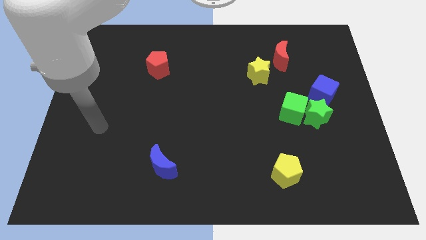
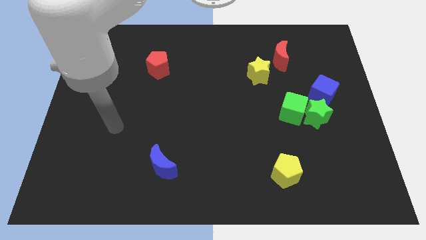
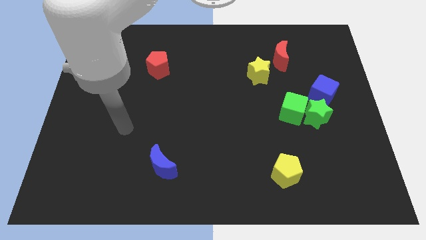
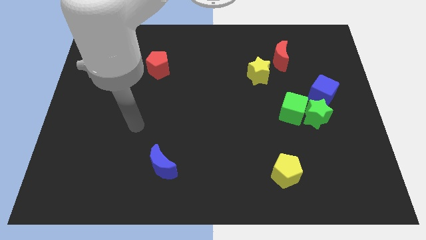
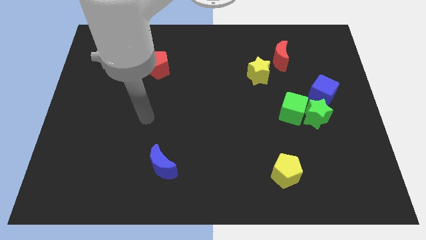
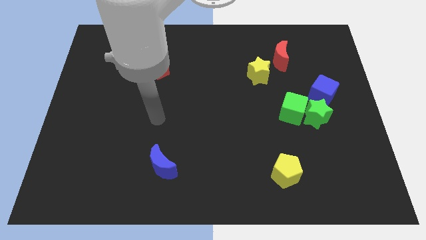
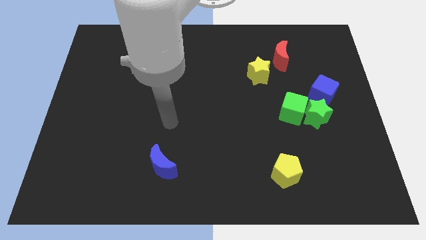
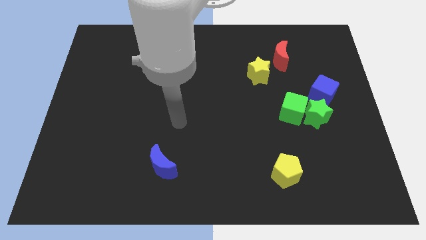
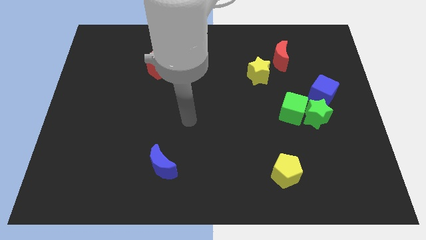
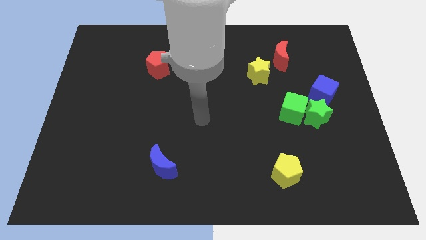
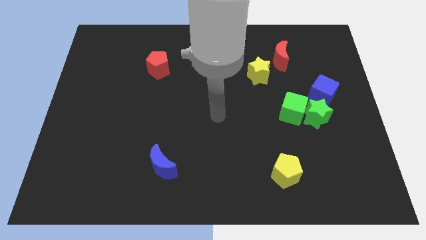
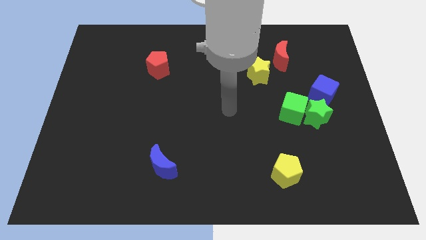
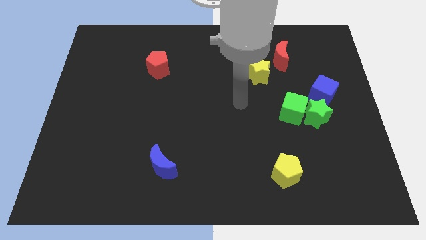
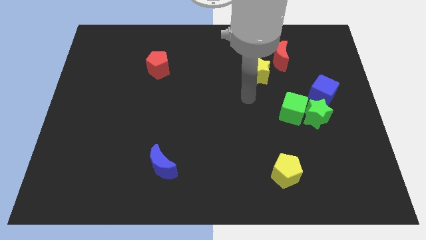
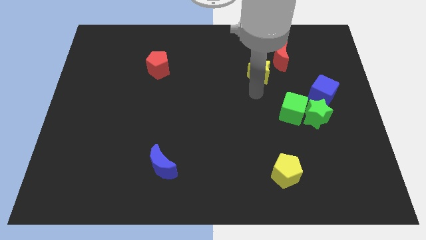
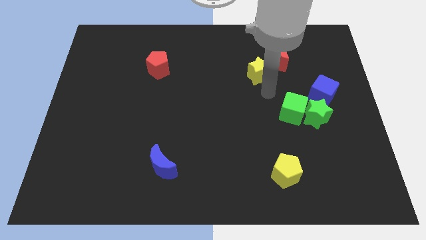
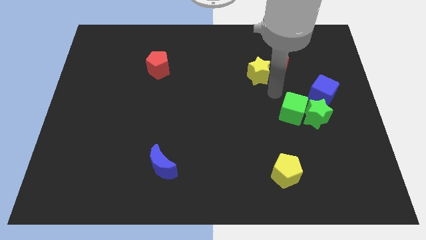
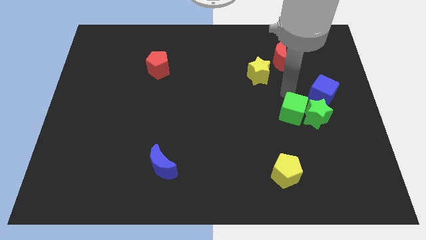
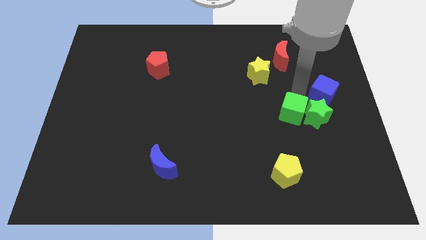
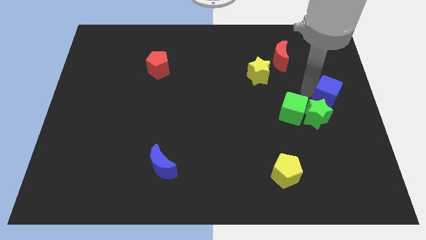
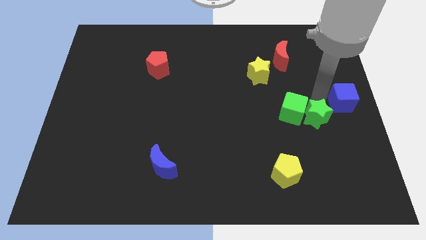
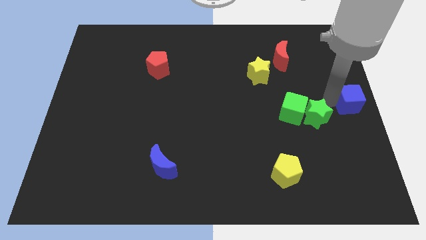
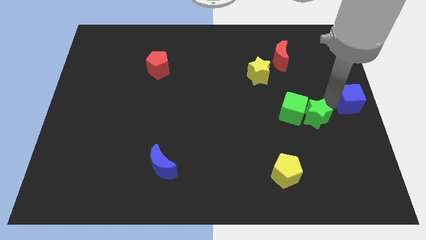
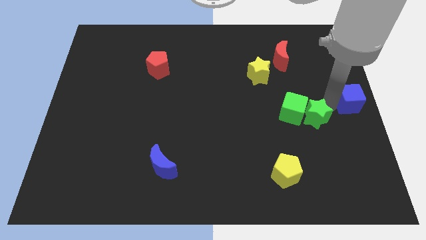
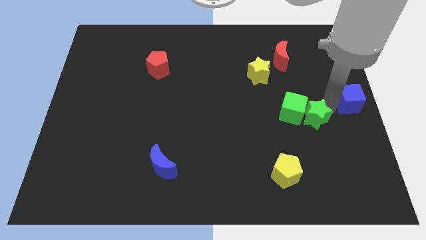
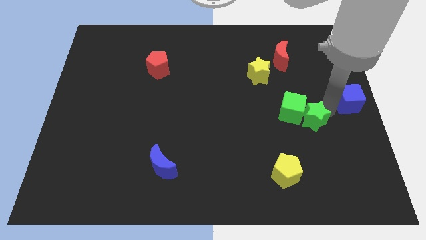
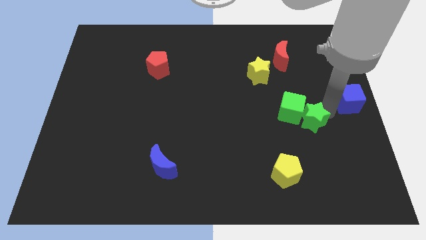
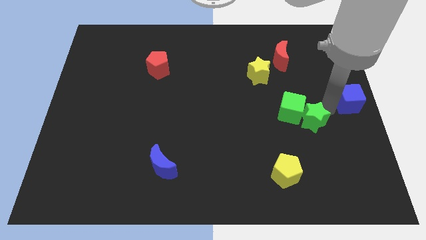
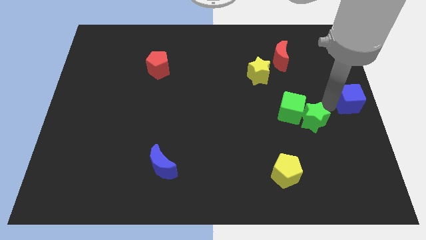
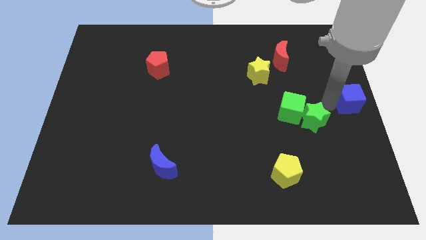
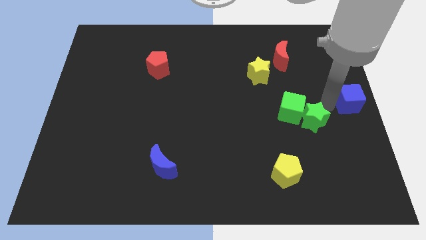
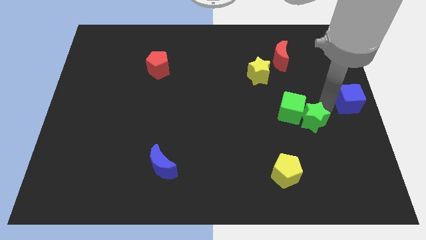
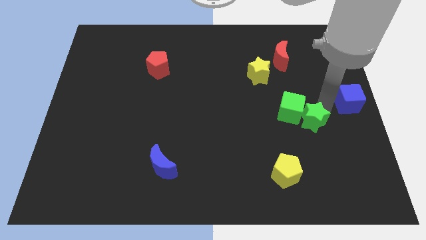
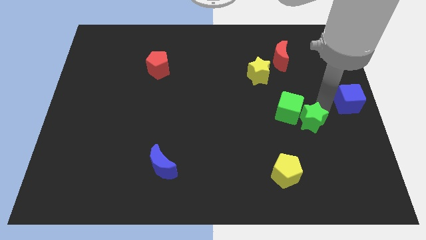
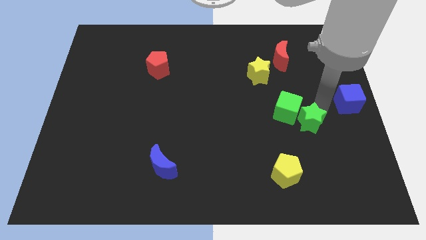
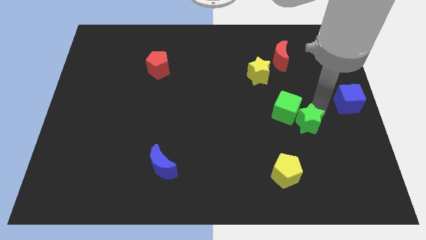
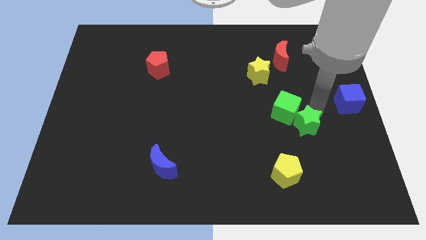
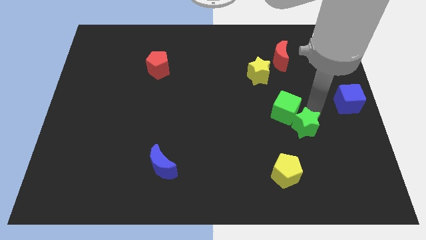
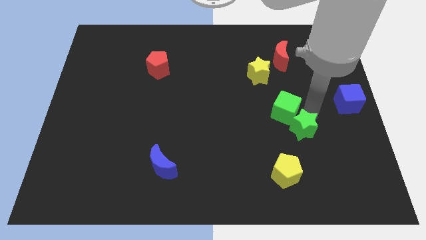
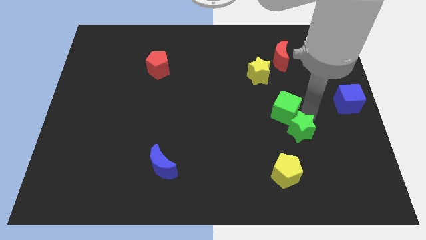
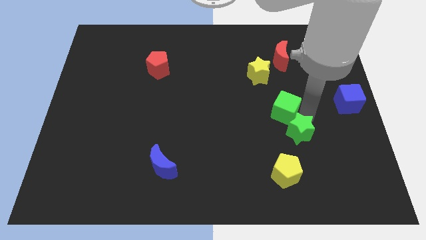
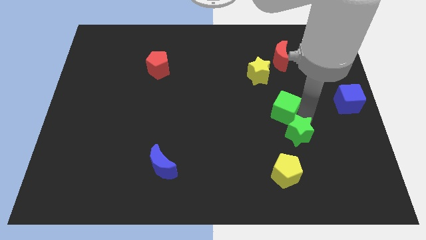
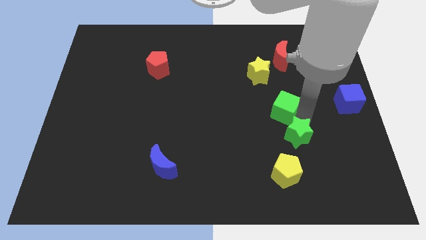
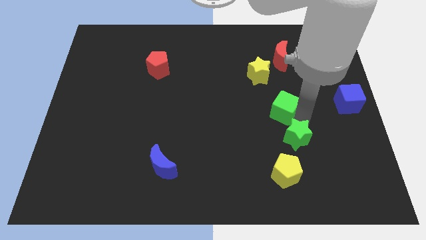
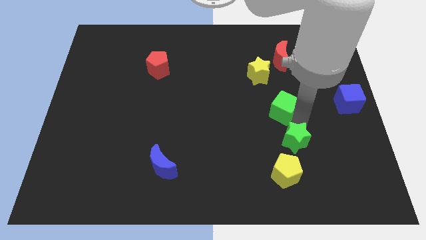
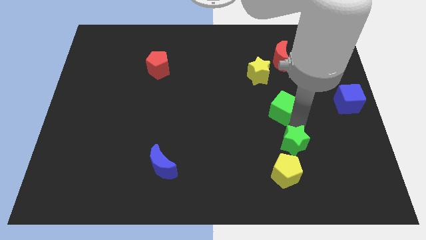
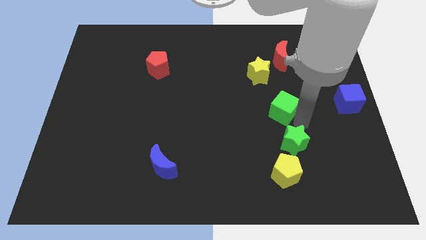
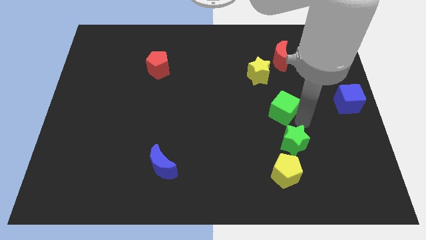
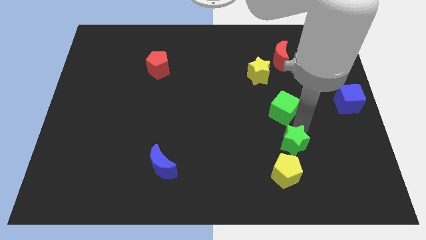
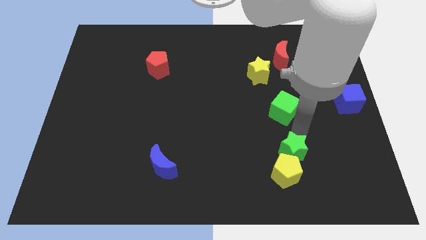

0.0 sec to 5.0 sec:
move the green star close to the yellow pentagon

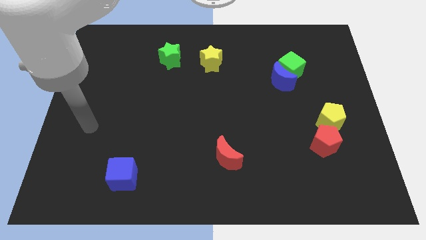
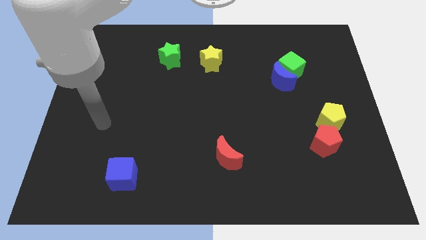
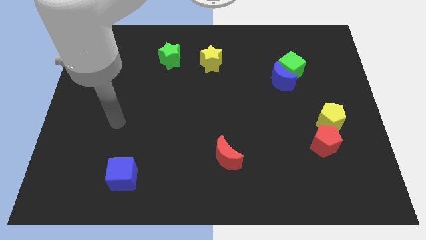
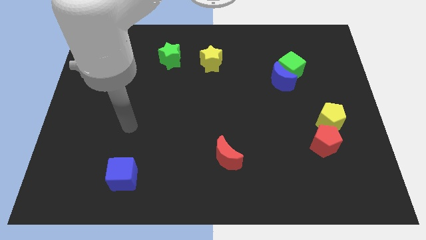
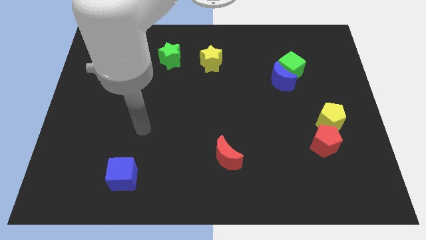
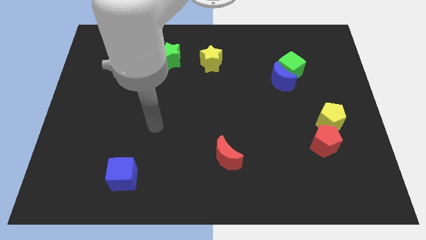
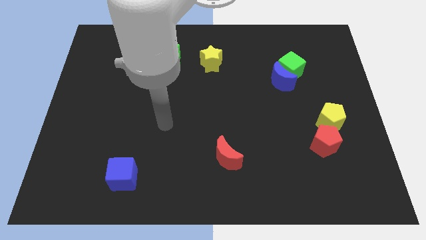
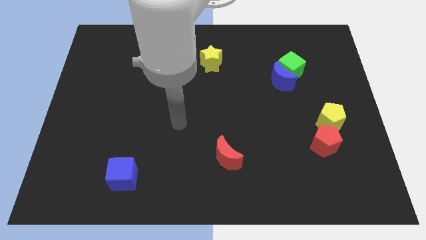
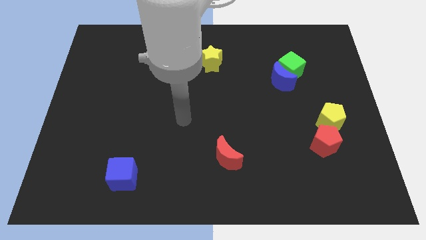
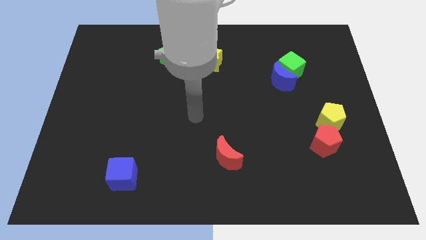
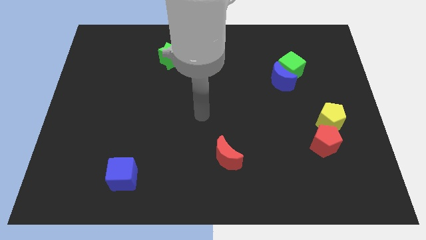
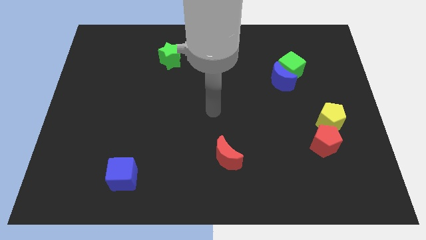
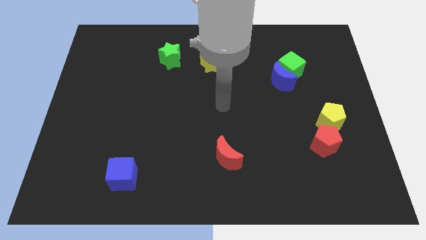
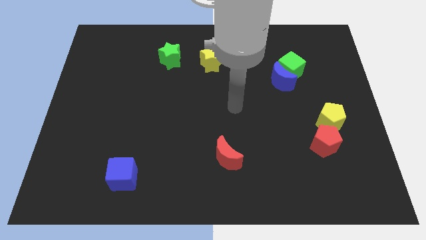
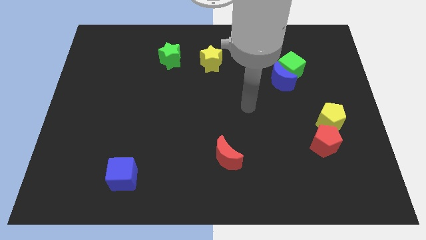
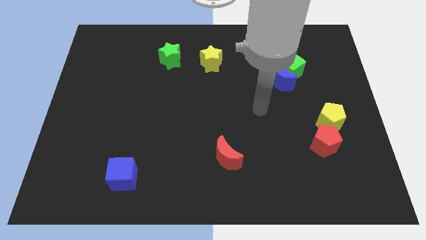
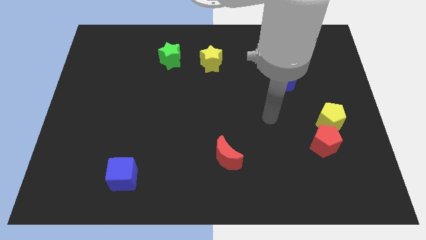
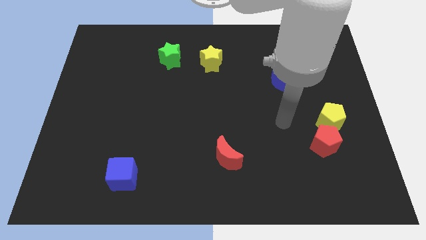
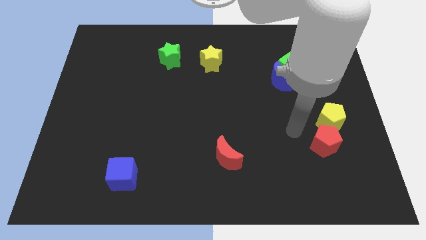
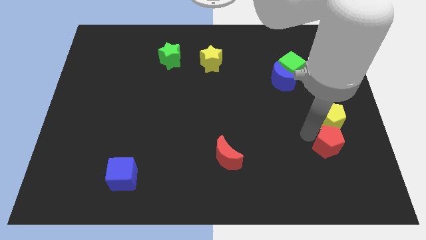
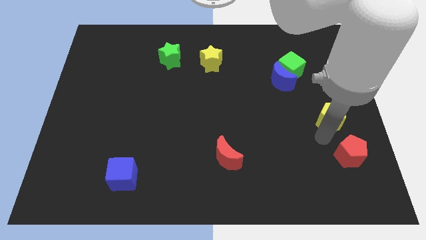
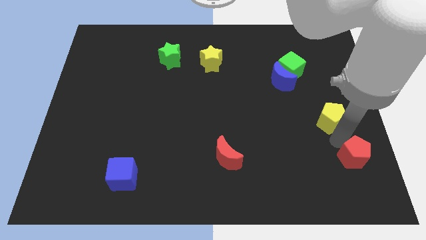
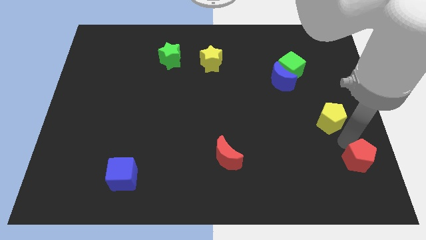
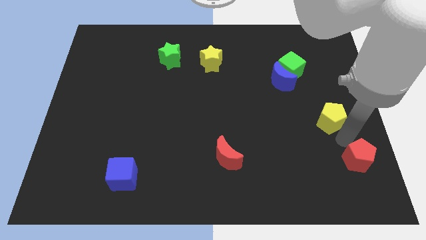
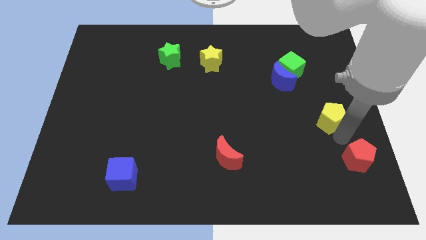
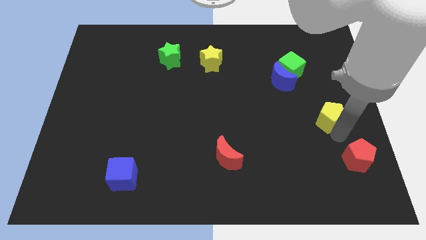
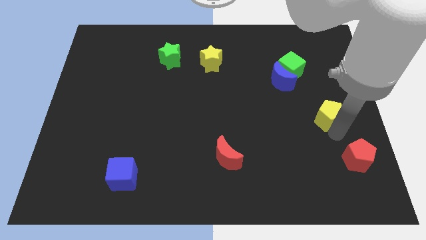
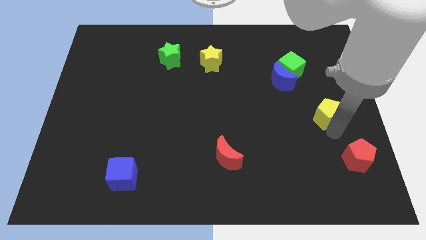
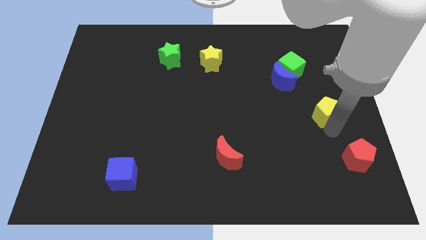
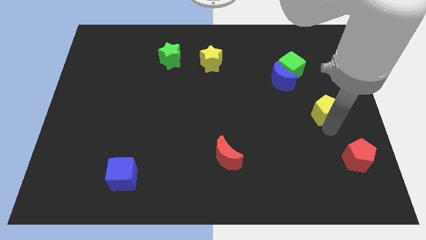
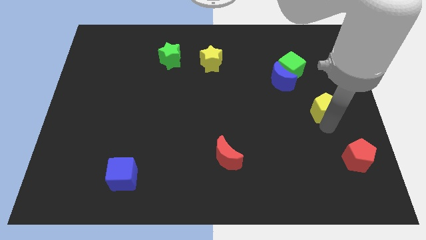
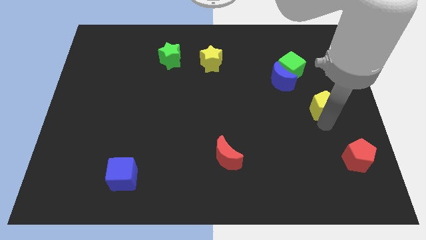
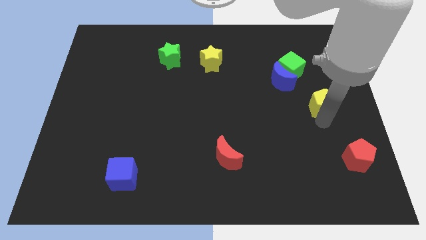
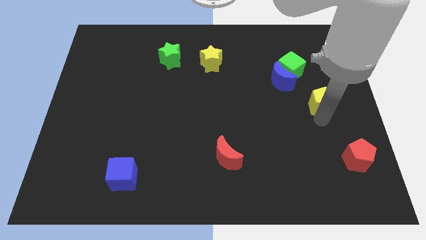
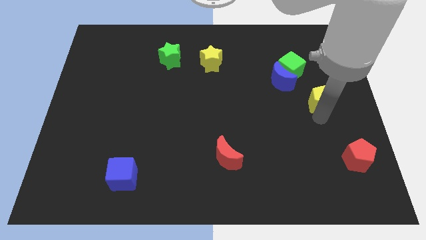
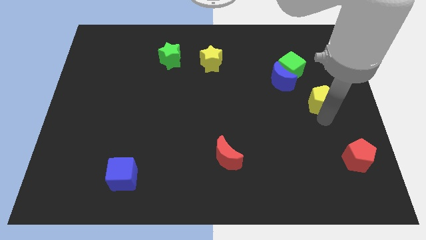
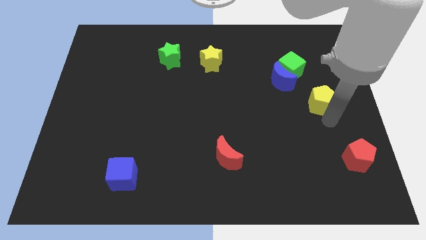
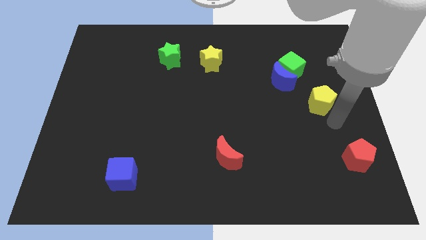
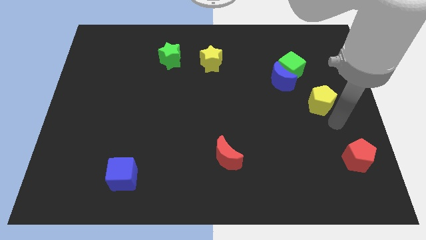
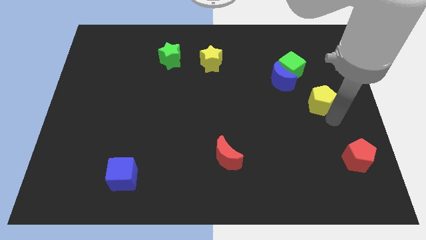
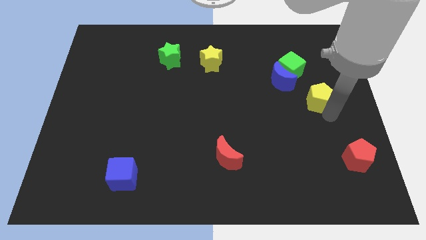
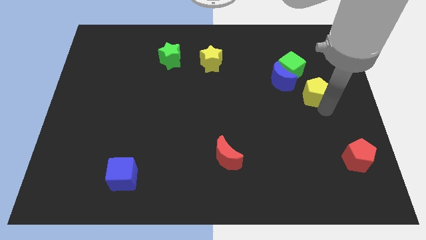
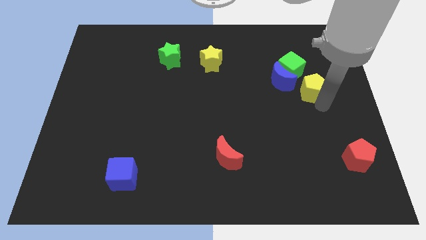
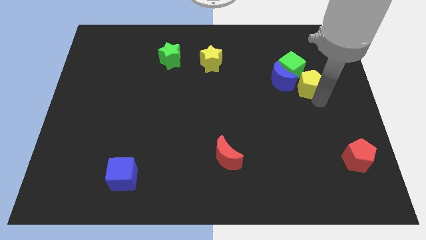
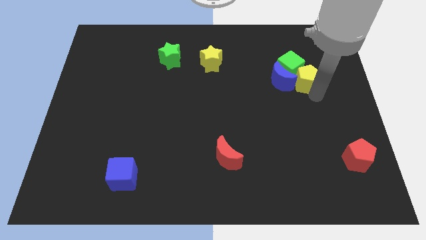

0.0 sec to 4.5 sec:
put the yellow pentagon close to the green cube
